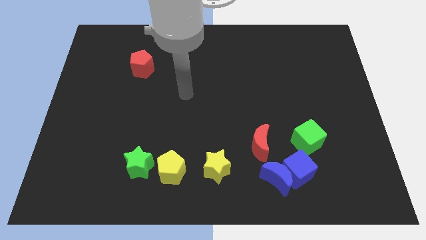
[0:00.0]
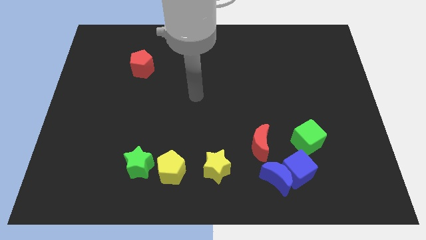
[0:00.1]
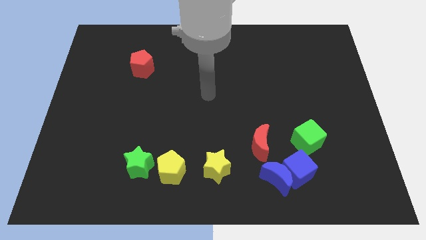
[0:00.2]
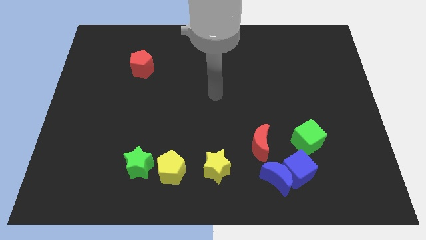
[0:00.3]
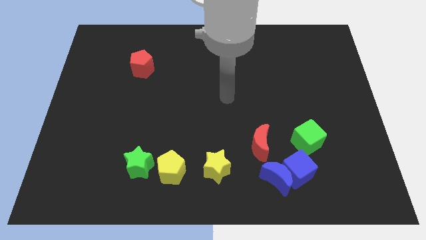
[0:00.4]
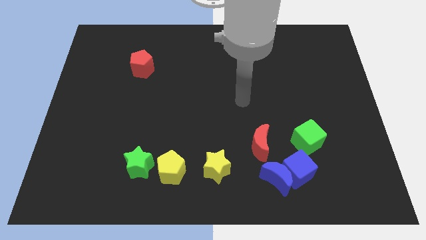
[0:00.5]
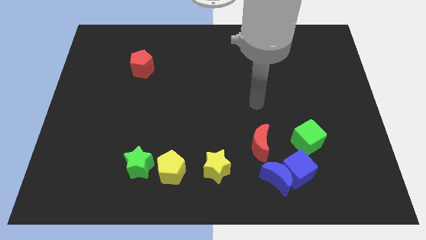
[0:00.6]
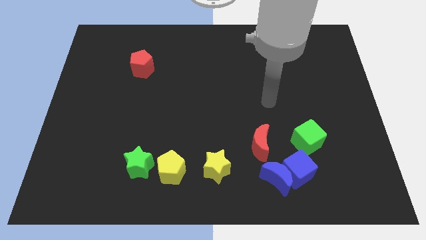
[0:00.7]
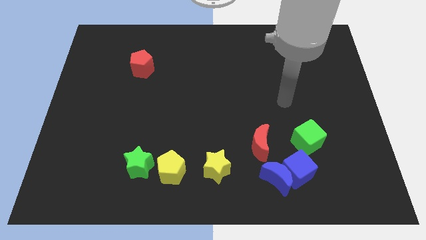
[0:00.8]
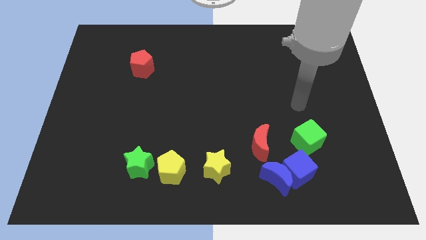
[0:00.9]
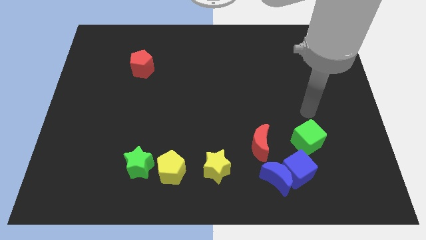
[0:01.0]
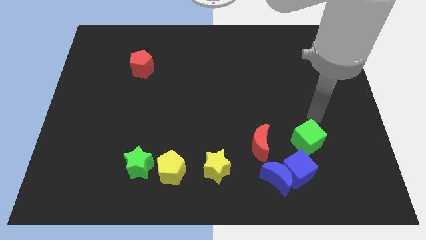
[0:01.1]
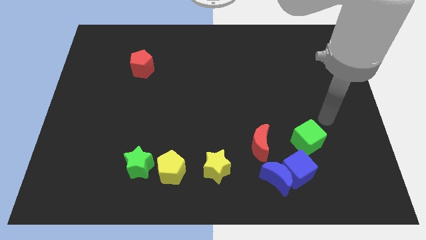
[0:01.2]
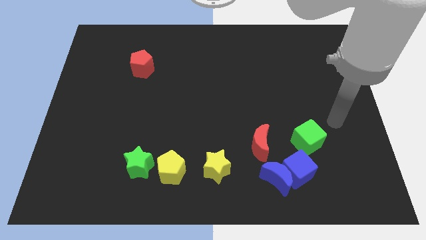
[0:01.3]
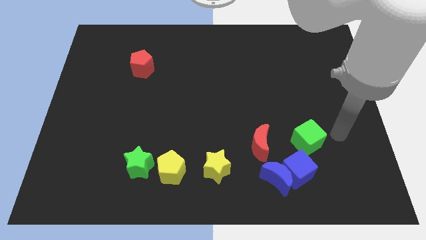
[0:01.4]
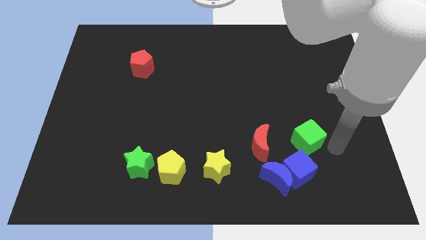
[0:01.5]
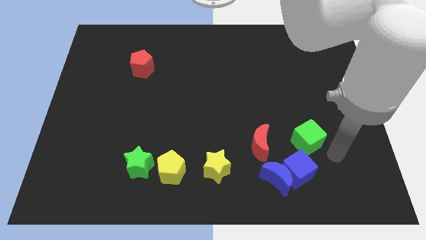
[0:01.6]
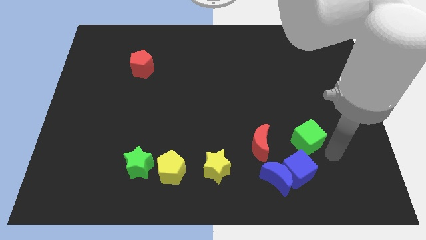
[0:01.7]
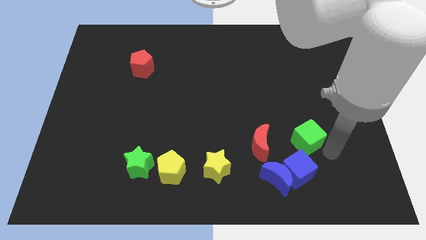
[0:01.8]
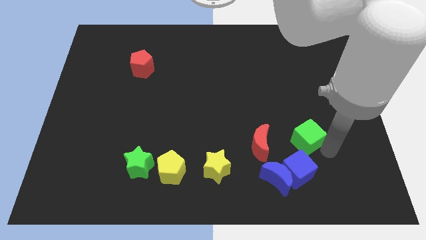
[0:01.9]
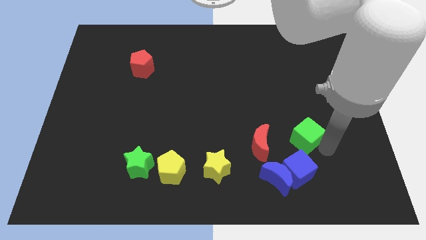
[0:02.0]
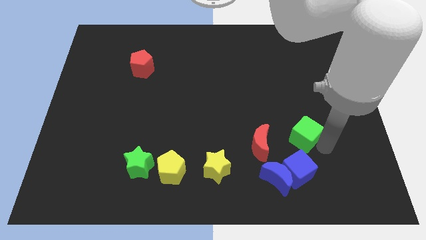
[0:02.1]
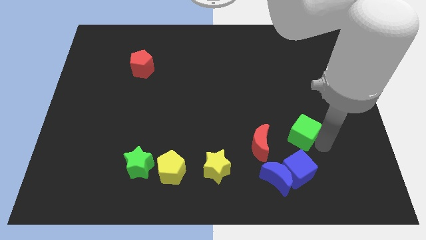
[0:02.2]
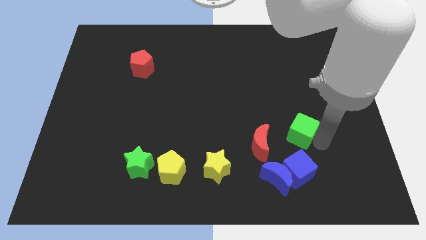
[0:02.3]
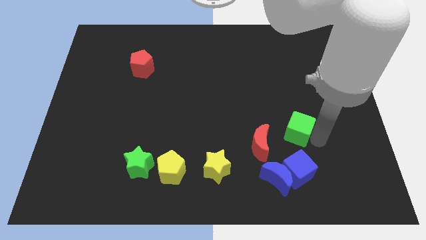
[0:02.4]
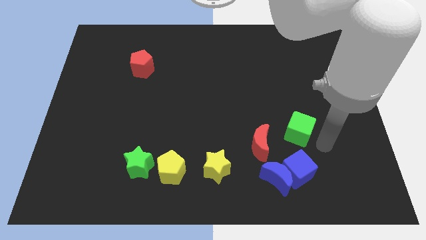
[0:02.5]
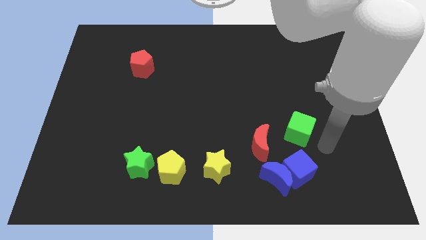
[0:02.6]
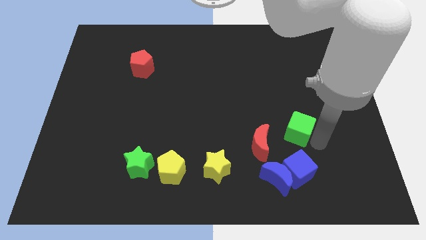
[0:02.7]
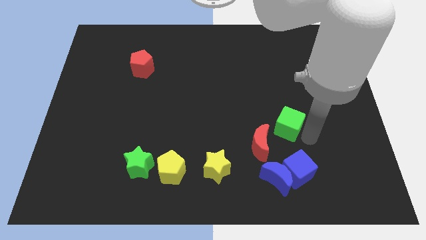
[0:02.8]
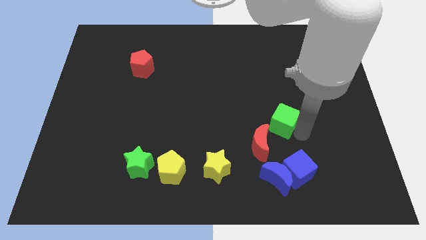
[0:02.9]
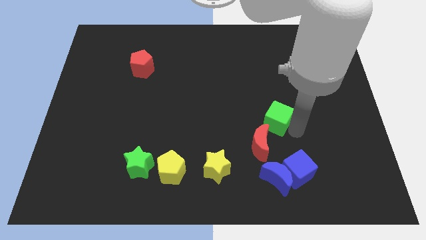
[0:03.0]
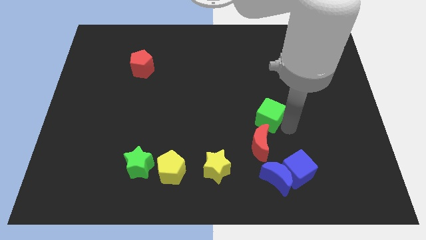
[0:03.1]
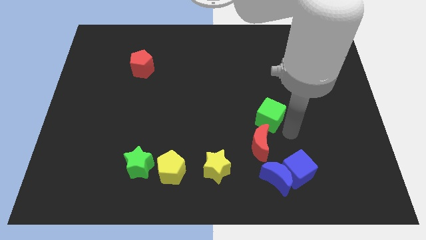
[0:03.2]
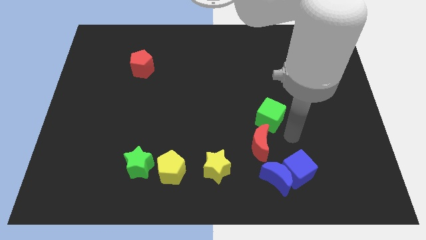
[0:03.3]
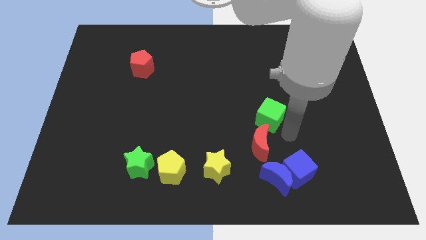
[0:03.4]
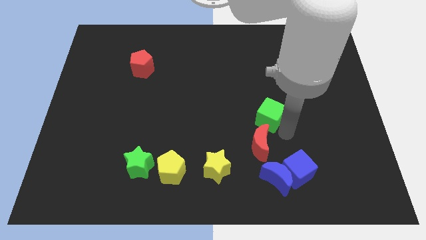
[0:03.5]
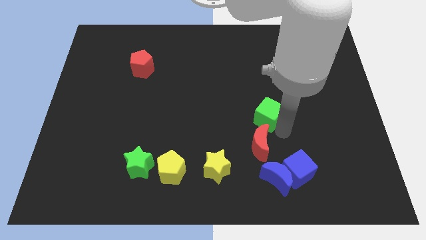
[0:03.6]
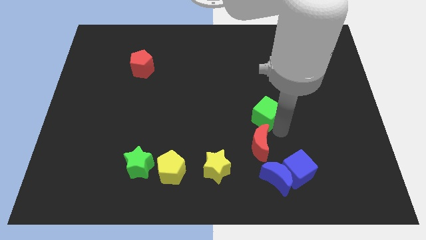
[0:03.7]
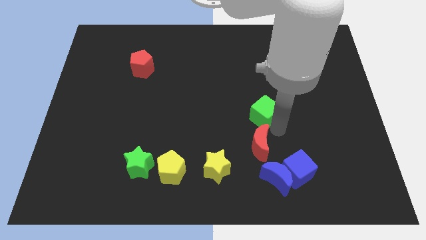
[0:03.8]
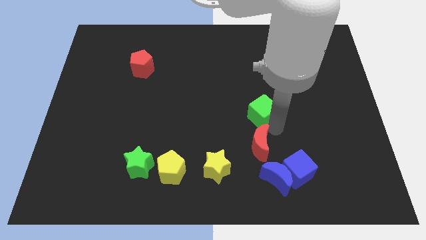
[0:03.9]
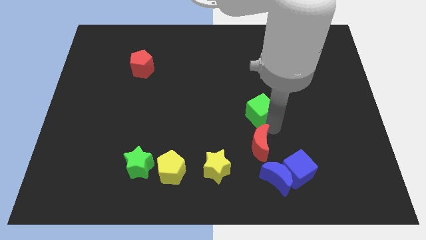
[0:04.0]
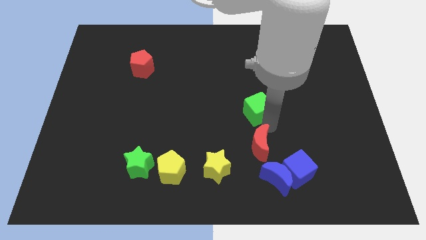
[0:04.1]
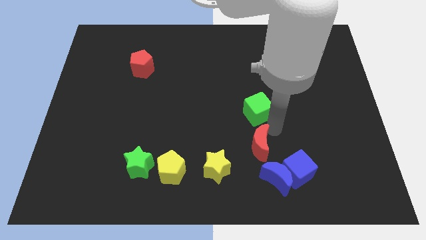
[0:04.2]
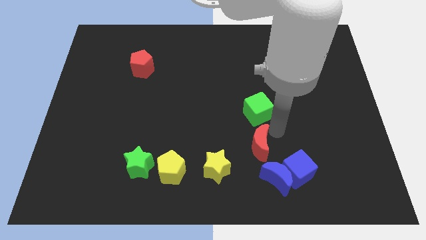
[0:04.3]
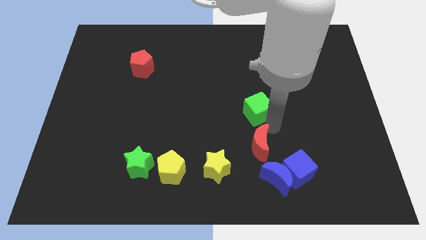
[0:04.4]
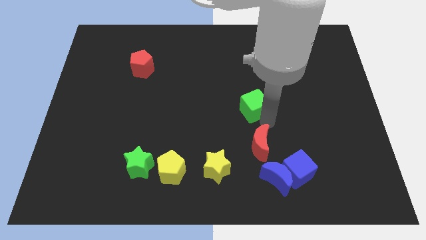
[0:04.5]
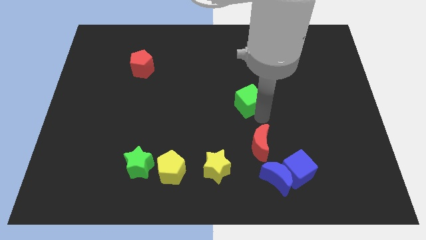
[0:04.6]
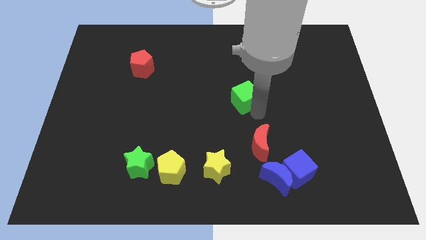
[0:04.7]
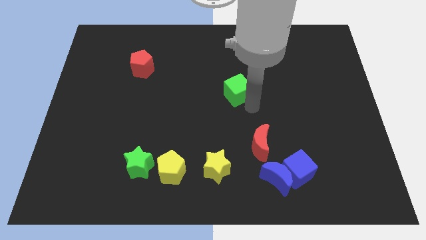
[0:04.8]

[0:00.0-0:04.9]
push the green cube diagonally up and left

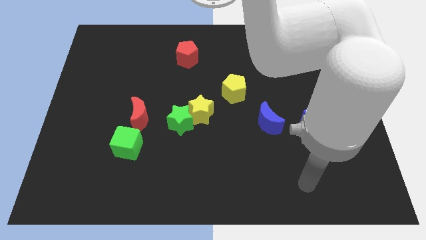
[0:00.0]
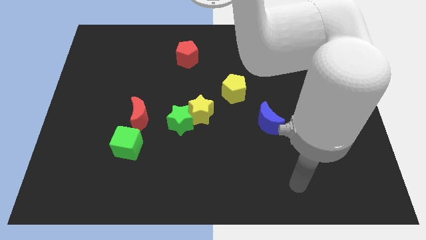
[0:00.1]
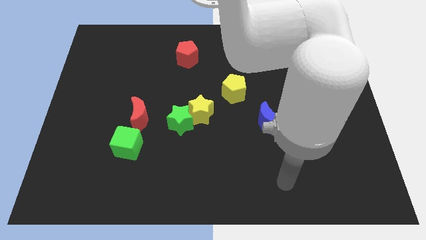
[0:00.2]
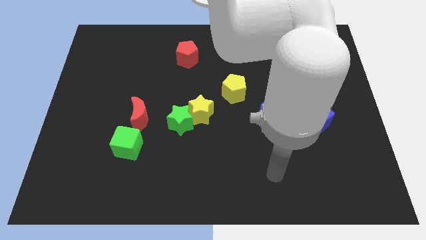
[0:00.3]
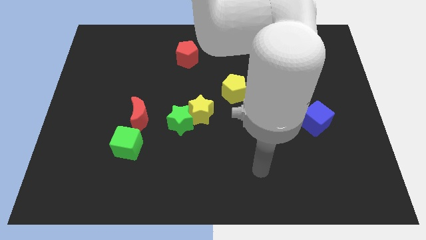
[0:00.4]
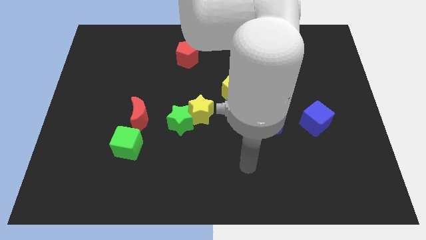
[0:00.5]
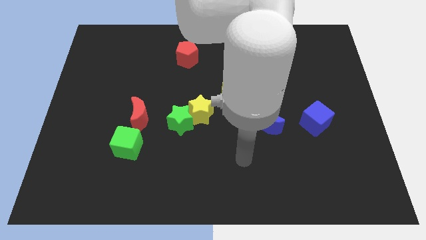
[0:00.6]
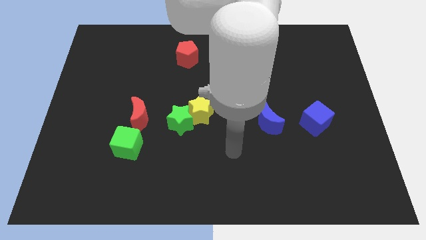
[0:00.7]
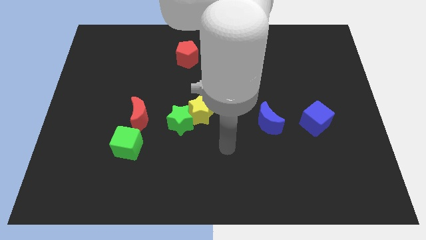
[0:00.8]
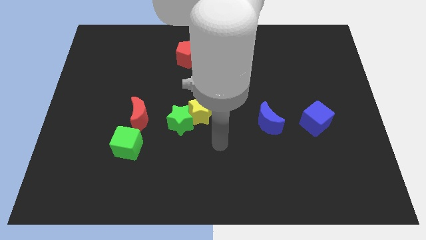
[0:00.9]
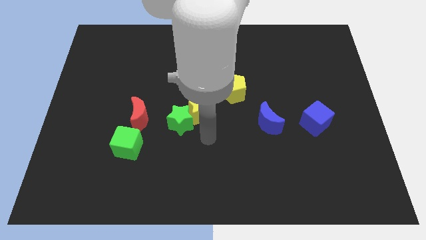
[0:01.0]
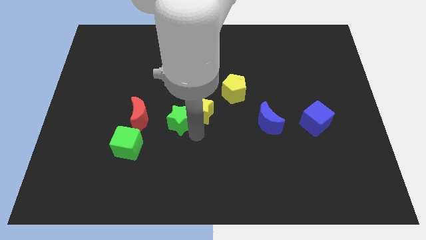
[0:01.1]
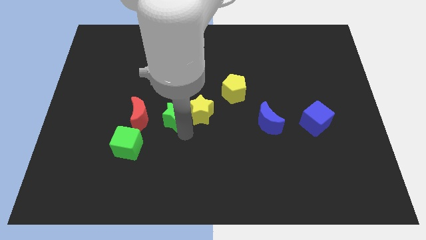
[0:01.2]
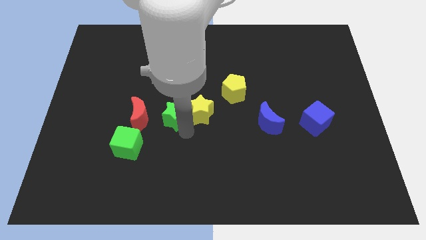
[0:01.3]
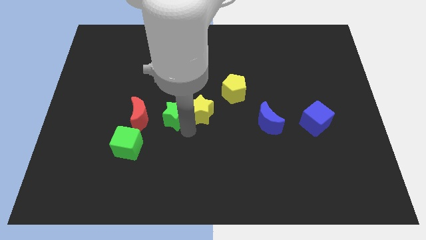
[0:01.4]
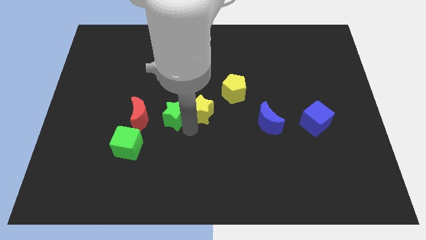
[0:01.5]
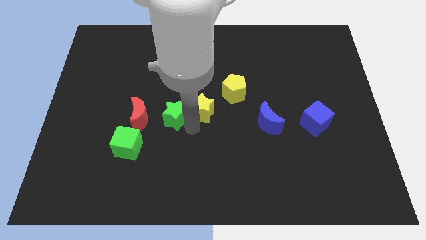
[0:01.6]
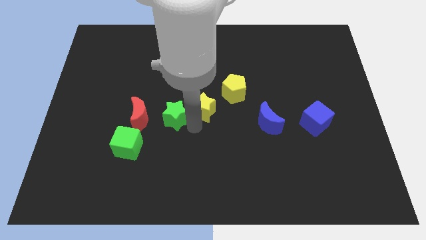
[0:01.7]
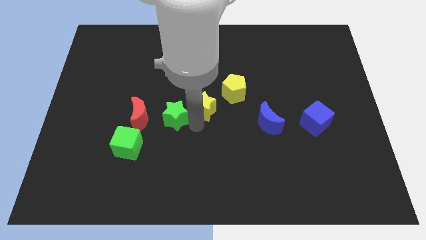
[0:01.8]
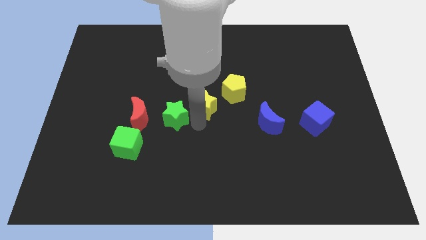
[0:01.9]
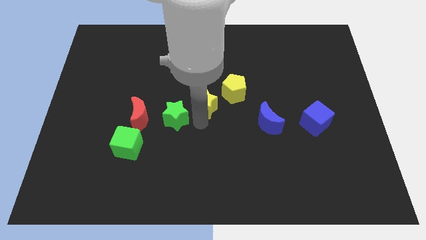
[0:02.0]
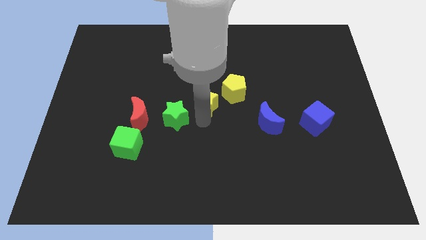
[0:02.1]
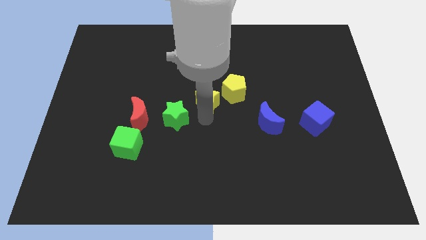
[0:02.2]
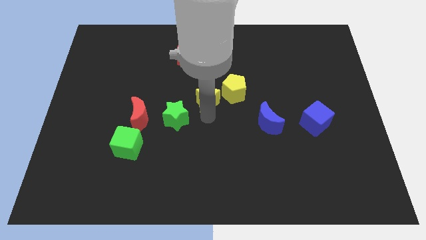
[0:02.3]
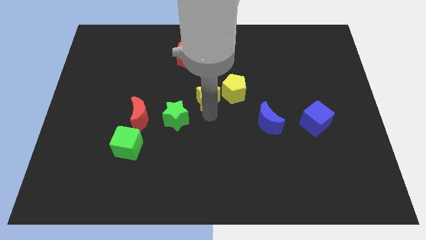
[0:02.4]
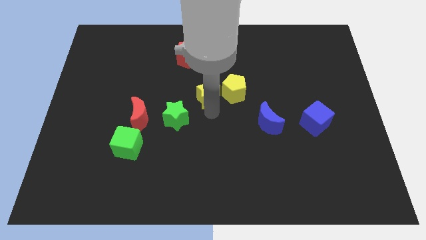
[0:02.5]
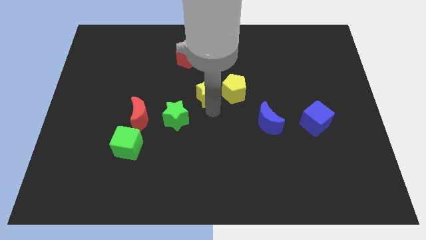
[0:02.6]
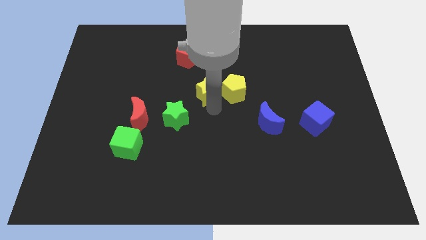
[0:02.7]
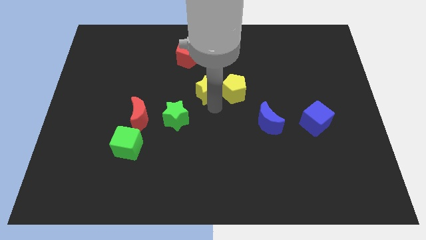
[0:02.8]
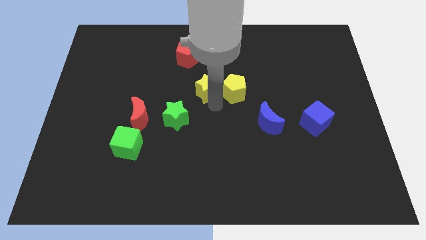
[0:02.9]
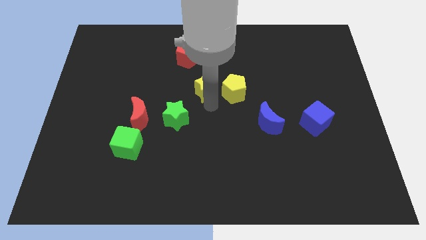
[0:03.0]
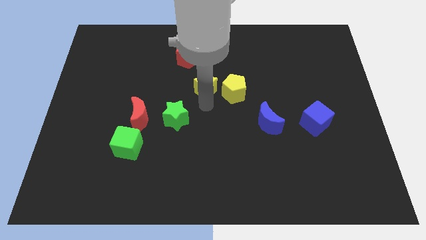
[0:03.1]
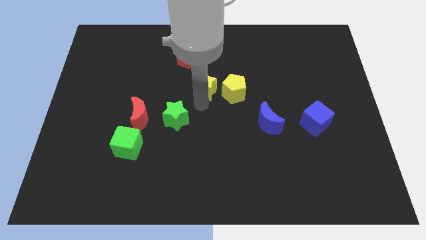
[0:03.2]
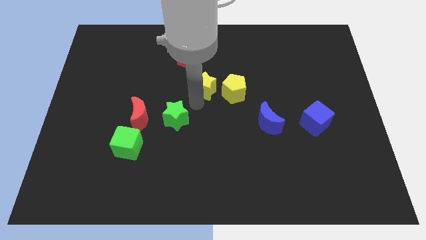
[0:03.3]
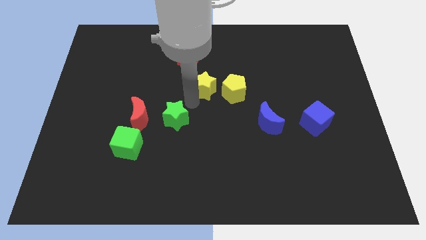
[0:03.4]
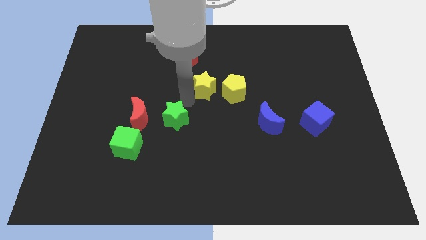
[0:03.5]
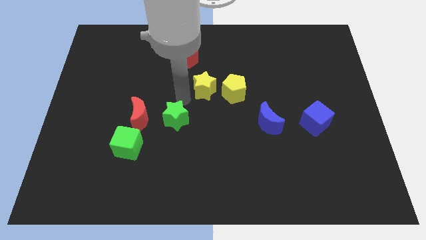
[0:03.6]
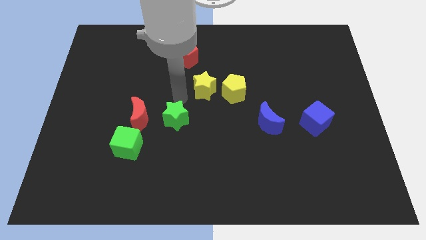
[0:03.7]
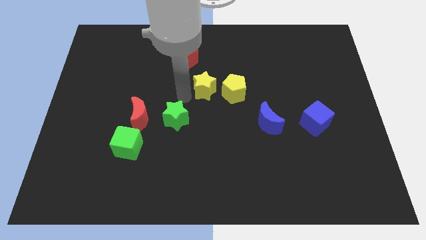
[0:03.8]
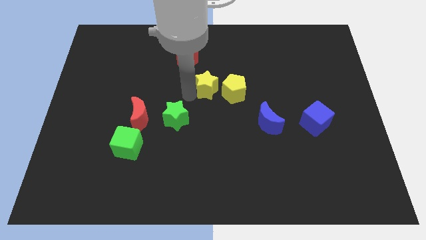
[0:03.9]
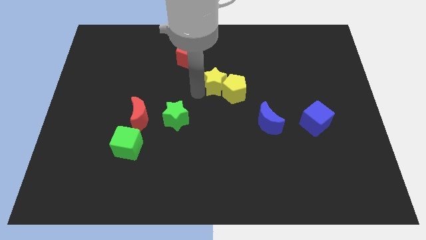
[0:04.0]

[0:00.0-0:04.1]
move the yellow star somewhat diagonally up and right
